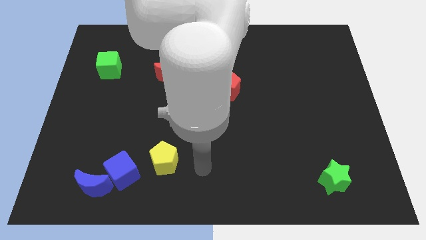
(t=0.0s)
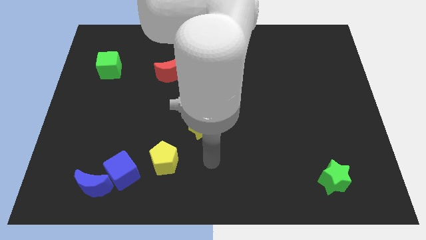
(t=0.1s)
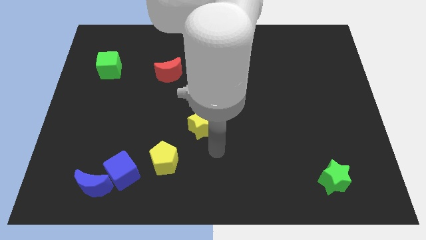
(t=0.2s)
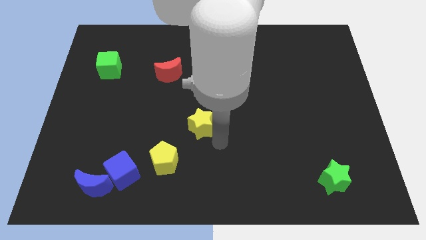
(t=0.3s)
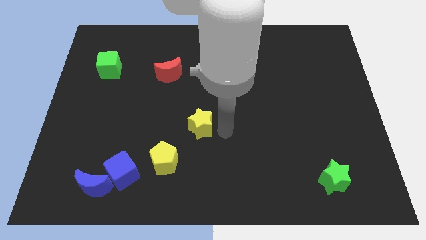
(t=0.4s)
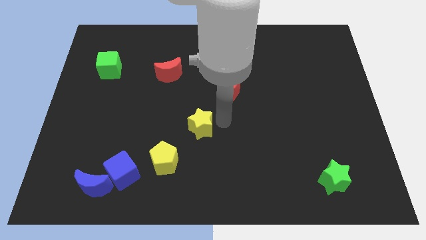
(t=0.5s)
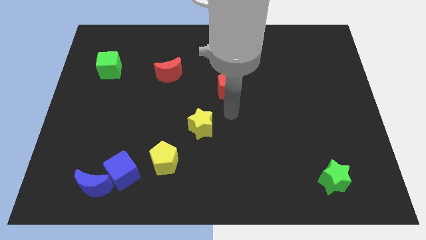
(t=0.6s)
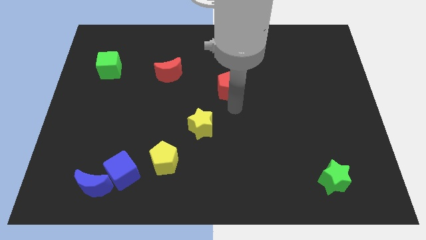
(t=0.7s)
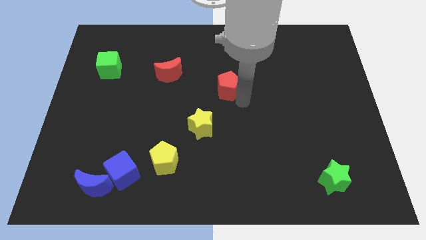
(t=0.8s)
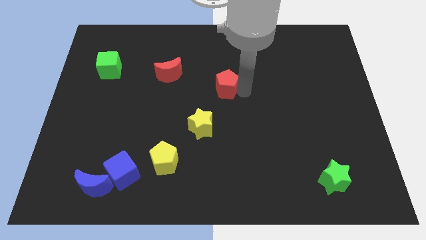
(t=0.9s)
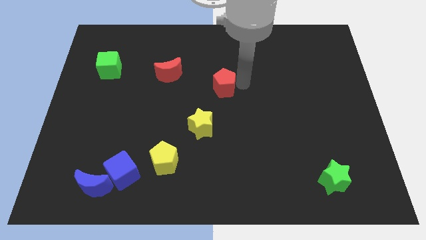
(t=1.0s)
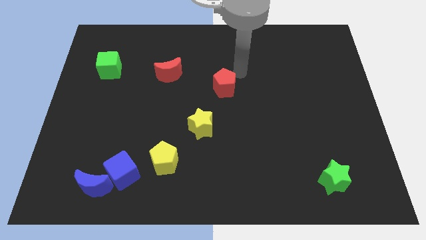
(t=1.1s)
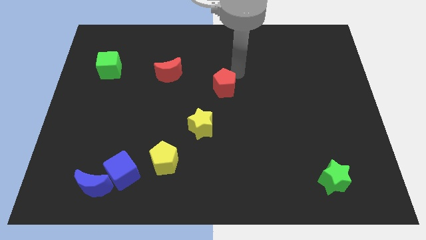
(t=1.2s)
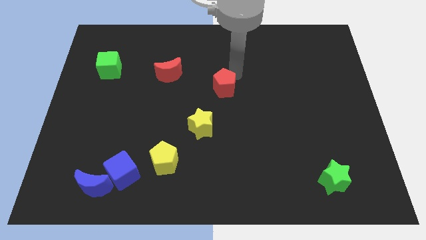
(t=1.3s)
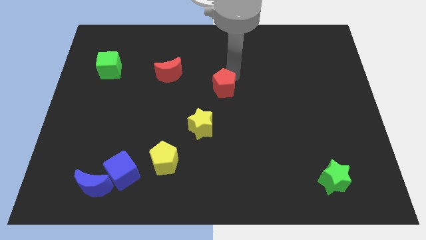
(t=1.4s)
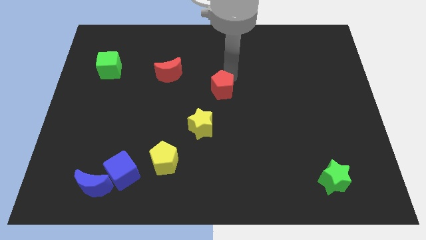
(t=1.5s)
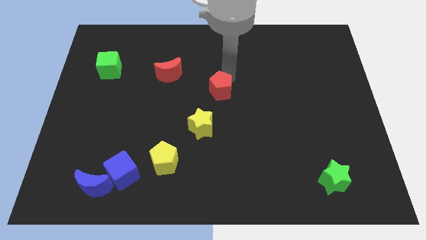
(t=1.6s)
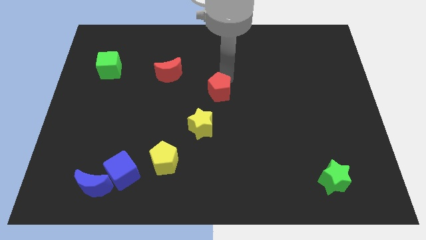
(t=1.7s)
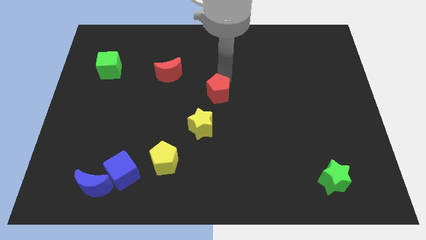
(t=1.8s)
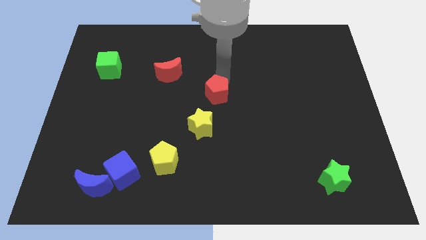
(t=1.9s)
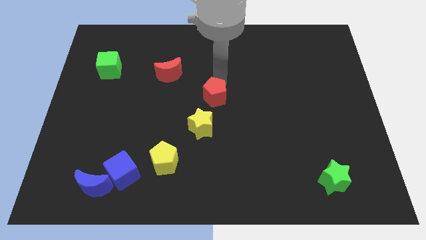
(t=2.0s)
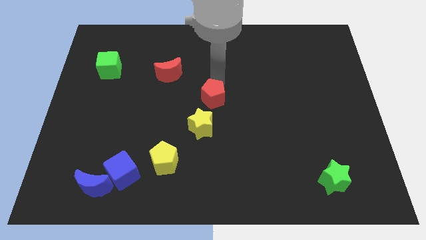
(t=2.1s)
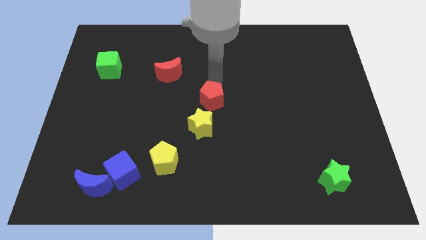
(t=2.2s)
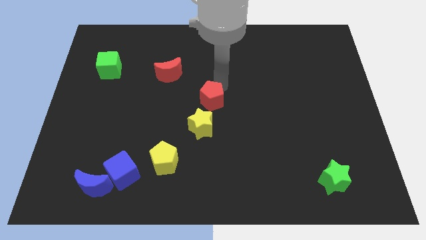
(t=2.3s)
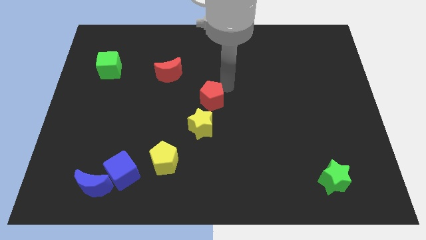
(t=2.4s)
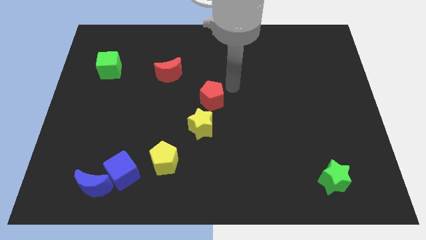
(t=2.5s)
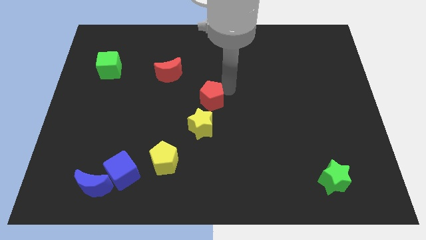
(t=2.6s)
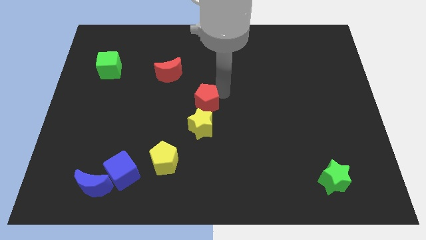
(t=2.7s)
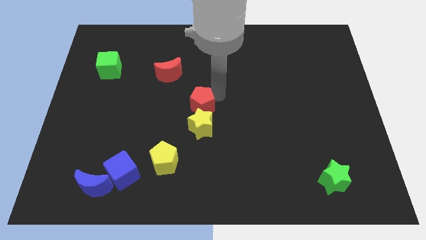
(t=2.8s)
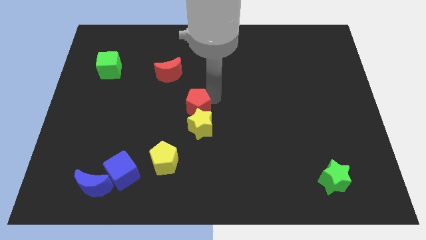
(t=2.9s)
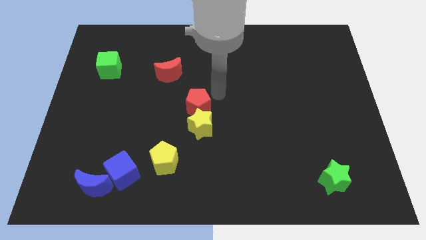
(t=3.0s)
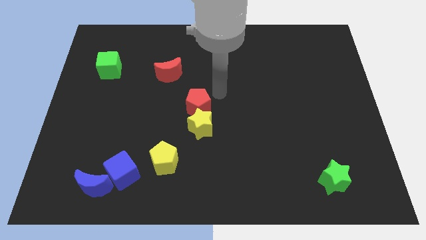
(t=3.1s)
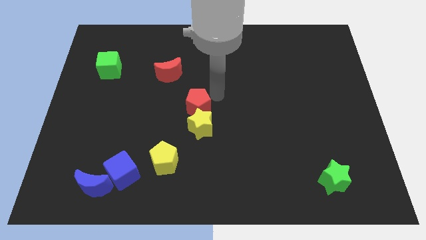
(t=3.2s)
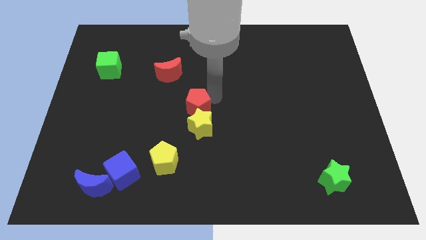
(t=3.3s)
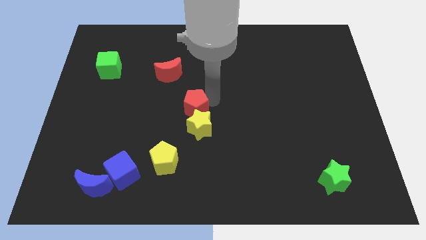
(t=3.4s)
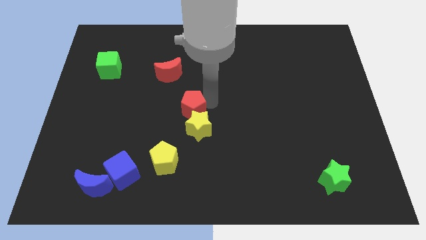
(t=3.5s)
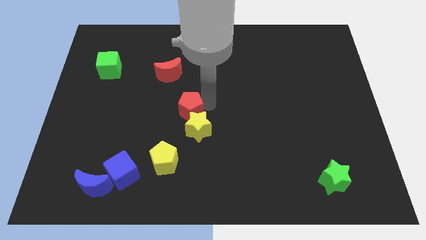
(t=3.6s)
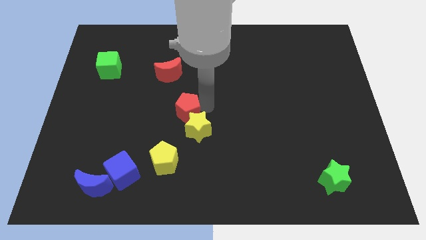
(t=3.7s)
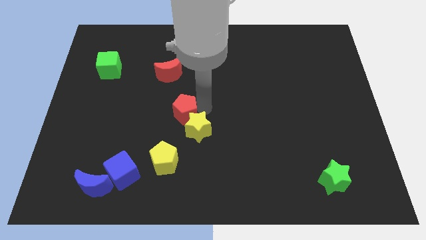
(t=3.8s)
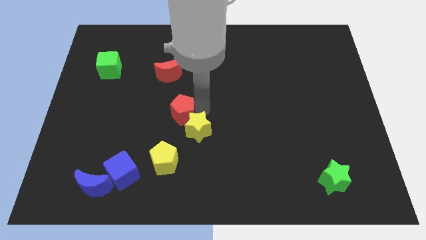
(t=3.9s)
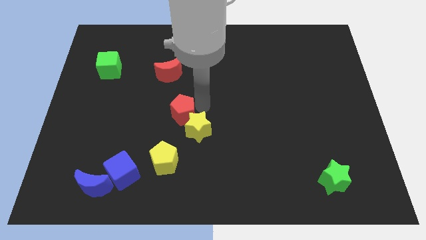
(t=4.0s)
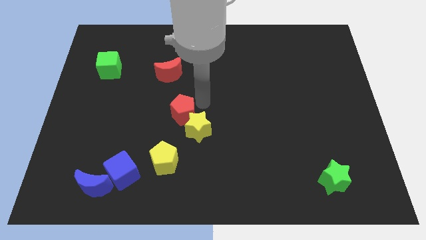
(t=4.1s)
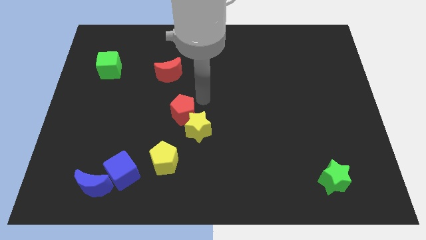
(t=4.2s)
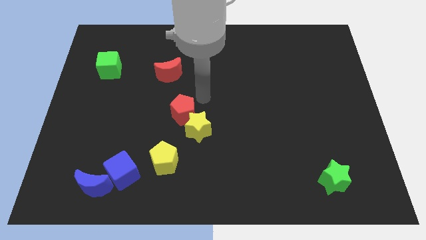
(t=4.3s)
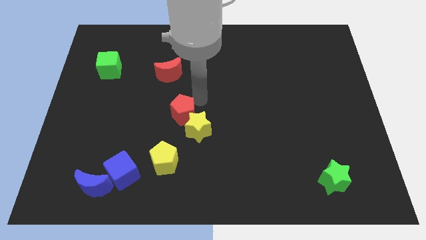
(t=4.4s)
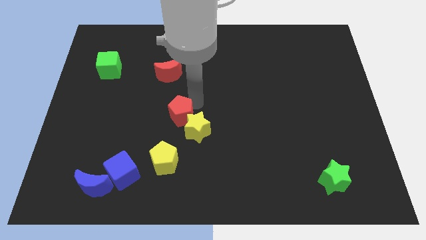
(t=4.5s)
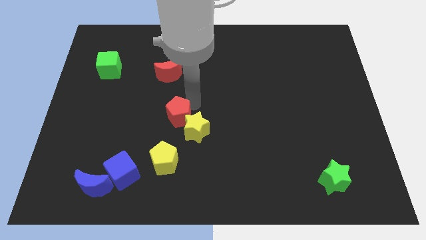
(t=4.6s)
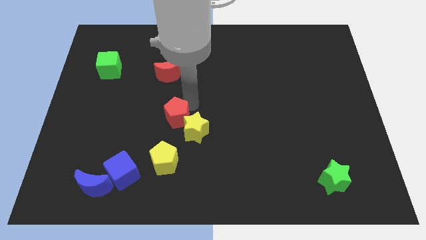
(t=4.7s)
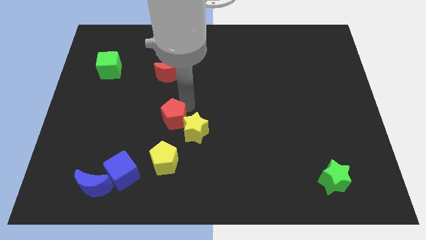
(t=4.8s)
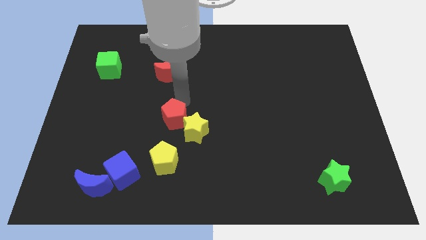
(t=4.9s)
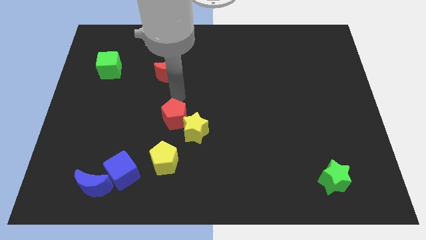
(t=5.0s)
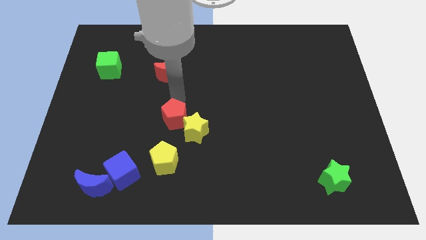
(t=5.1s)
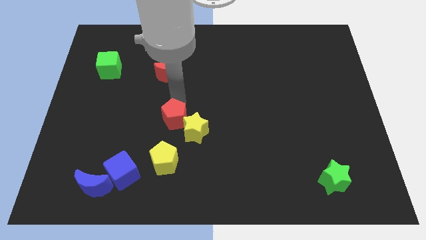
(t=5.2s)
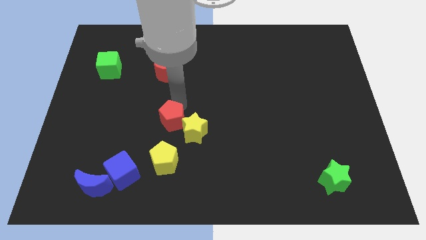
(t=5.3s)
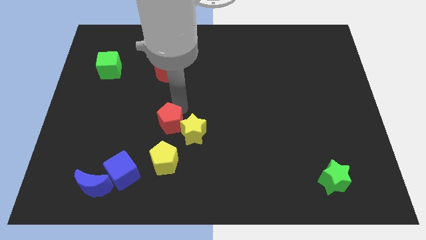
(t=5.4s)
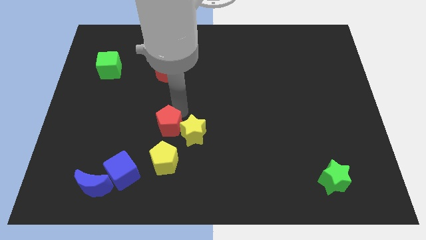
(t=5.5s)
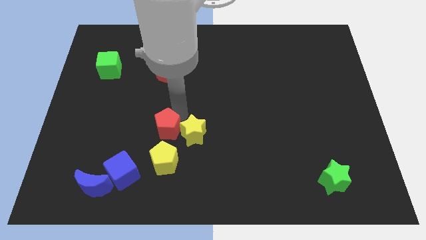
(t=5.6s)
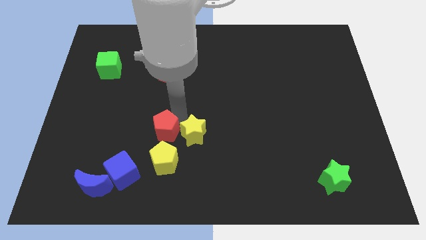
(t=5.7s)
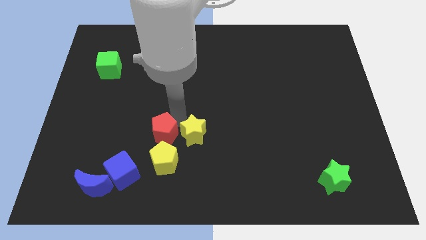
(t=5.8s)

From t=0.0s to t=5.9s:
move the red pentagon to the bottom left of the yellow star

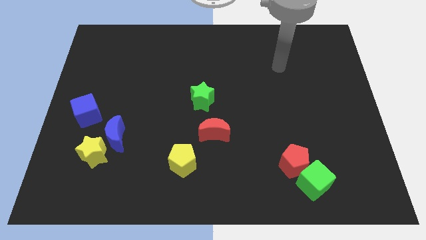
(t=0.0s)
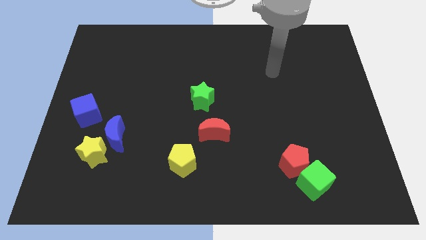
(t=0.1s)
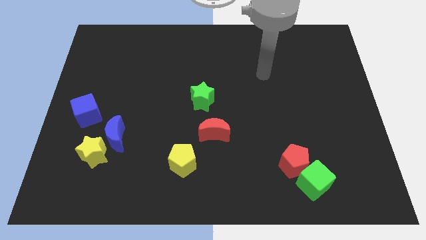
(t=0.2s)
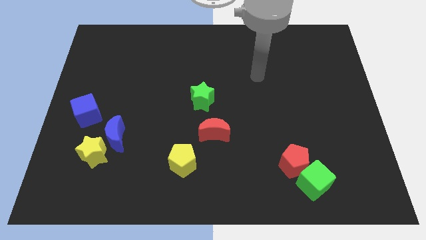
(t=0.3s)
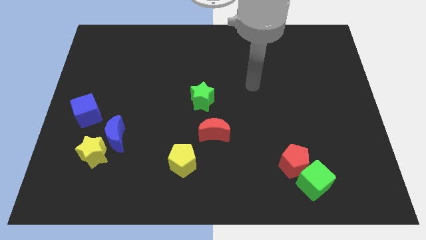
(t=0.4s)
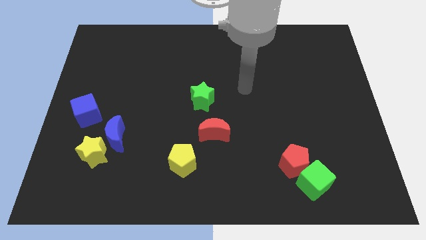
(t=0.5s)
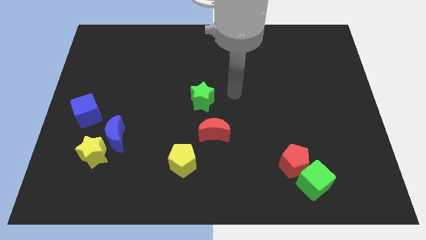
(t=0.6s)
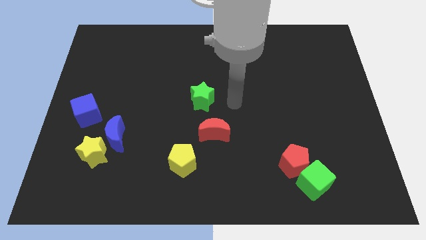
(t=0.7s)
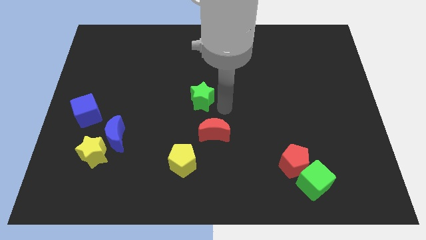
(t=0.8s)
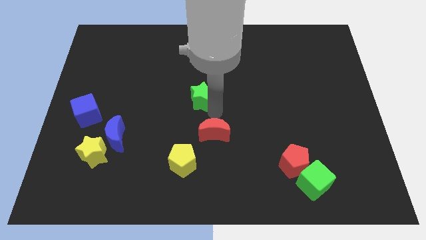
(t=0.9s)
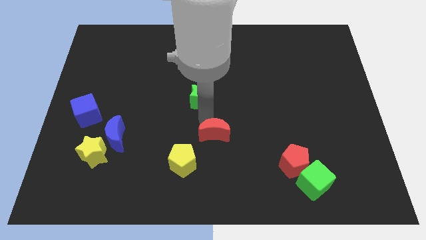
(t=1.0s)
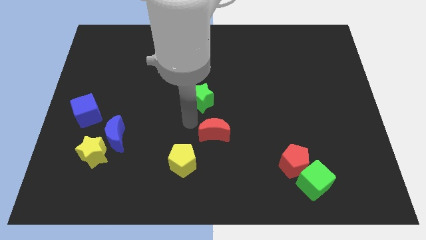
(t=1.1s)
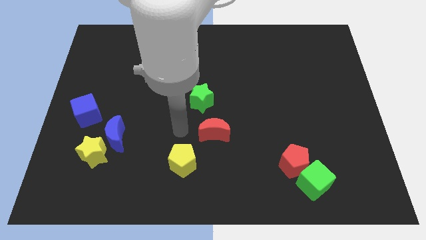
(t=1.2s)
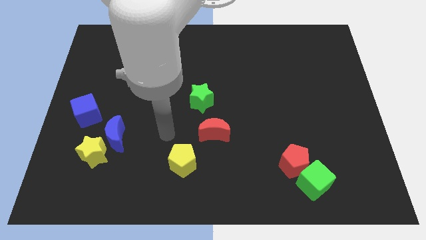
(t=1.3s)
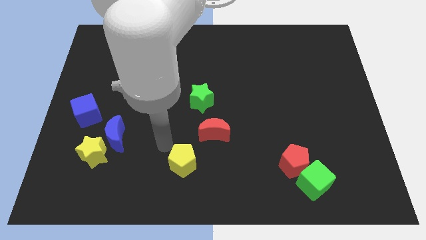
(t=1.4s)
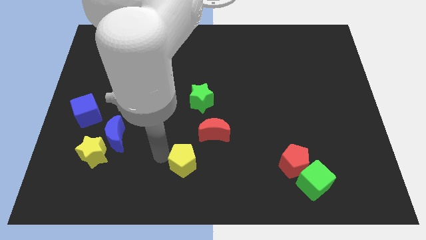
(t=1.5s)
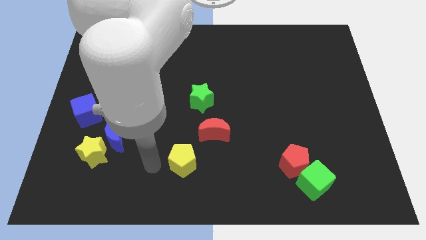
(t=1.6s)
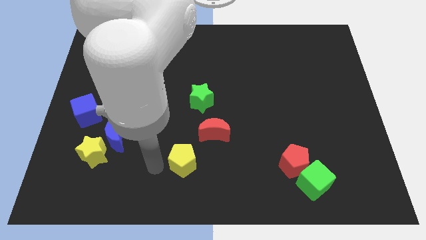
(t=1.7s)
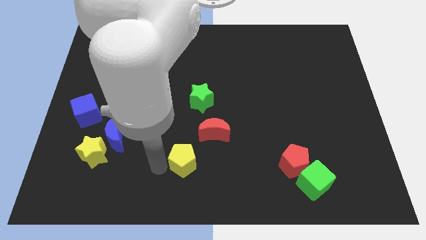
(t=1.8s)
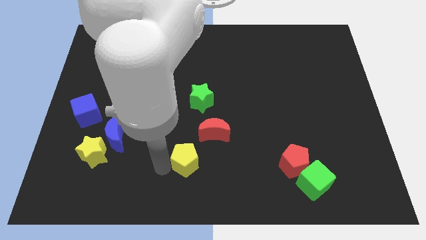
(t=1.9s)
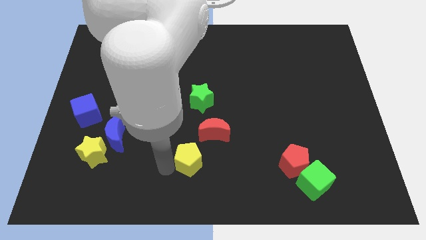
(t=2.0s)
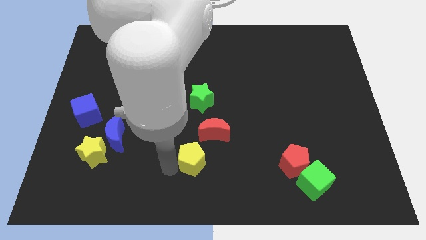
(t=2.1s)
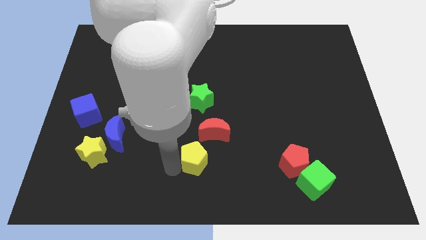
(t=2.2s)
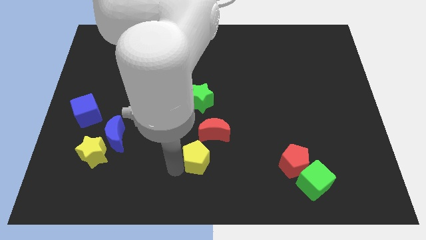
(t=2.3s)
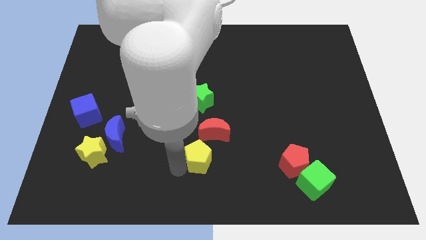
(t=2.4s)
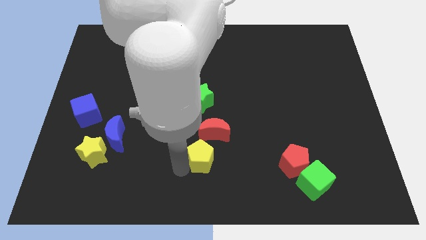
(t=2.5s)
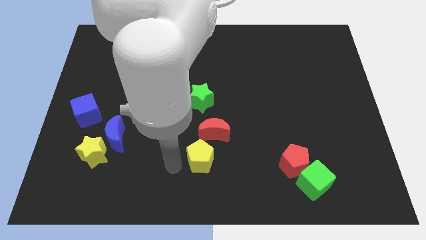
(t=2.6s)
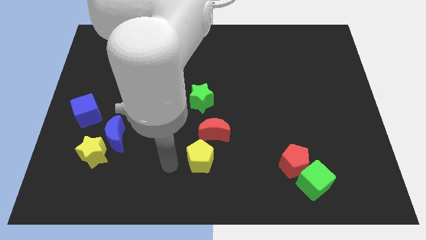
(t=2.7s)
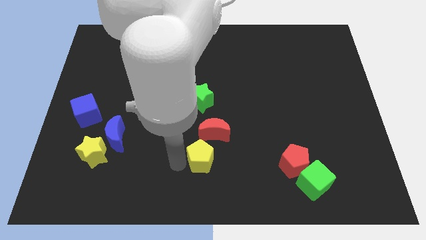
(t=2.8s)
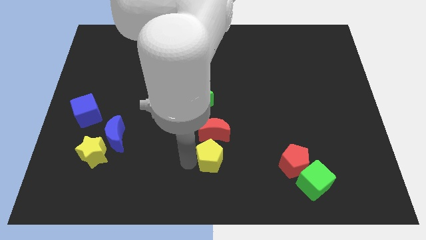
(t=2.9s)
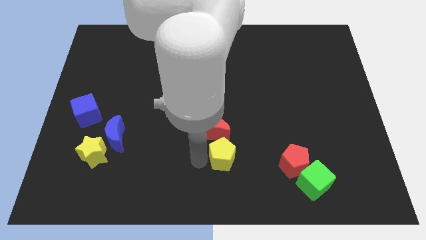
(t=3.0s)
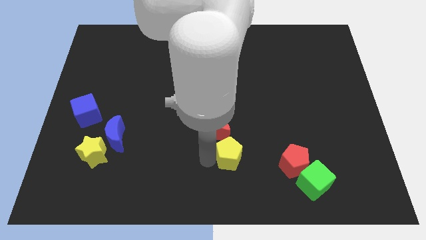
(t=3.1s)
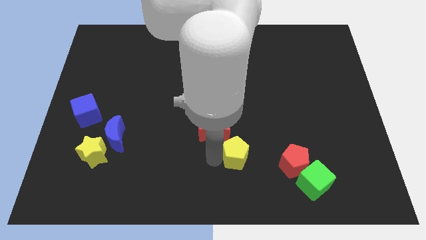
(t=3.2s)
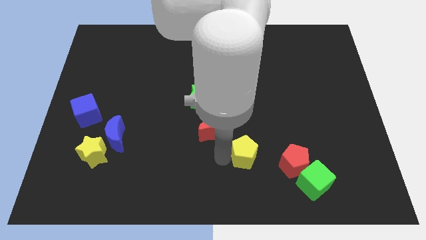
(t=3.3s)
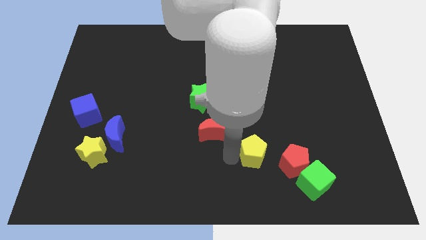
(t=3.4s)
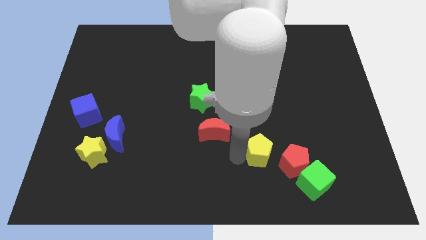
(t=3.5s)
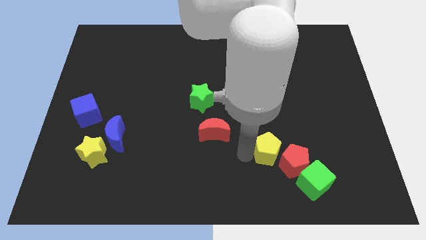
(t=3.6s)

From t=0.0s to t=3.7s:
move the yellow pentagon to the top left side of the green cube
